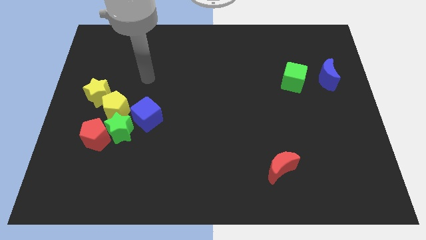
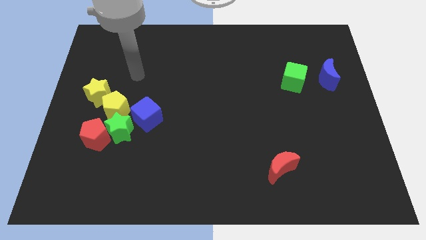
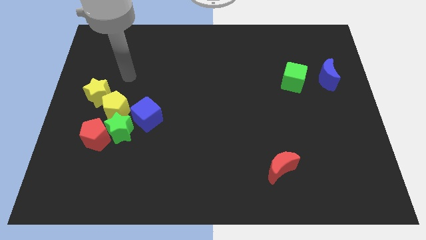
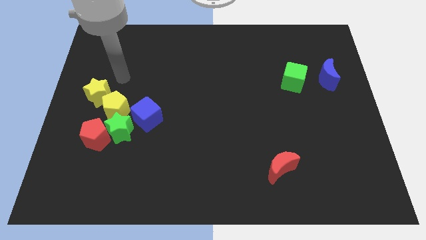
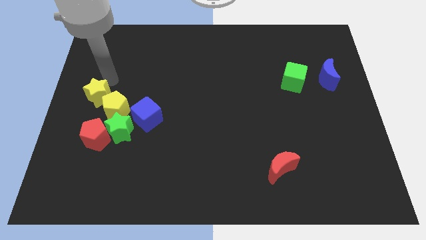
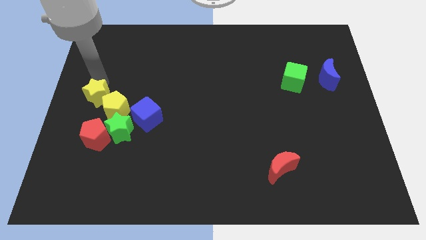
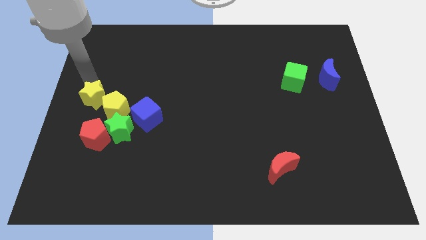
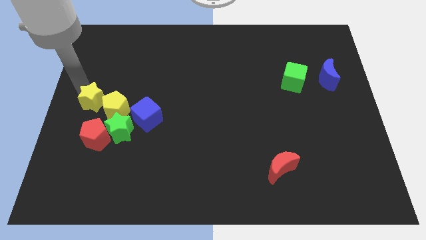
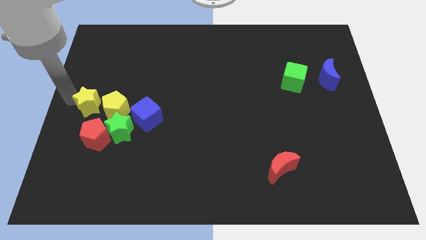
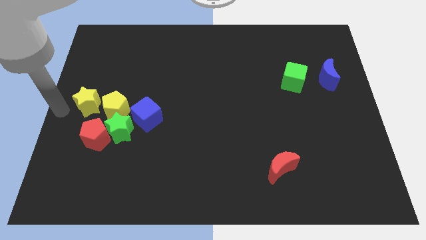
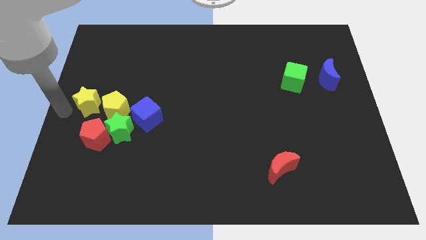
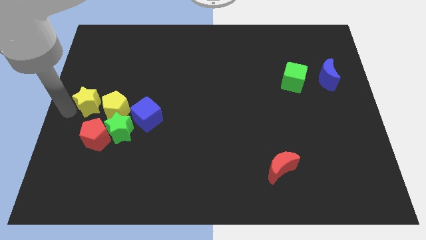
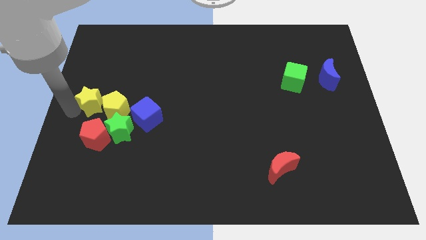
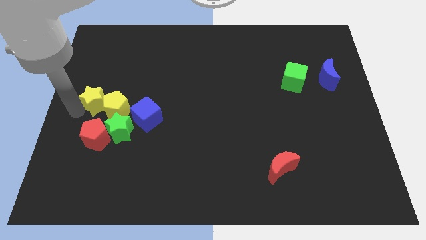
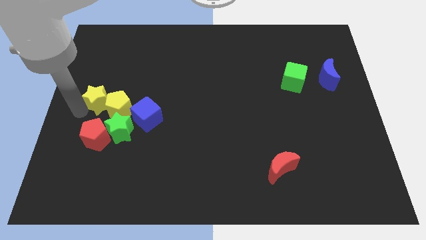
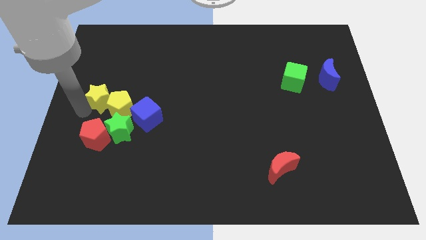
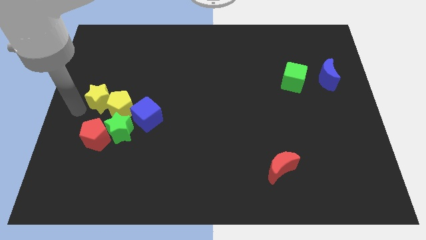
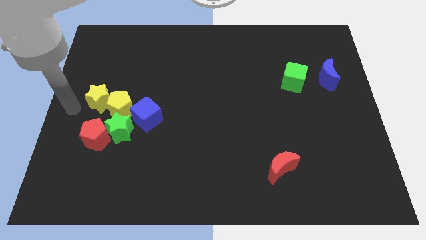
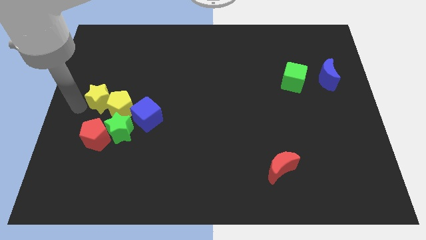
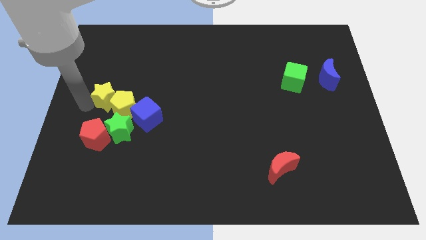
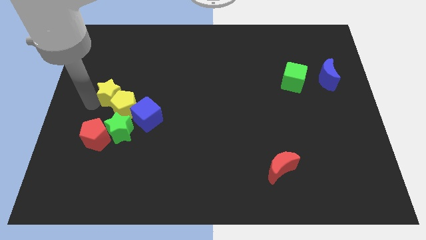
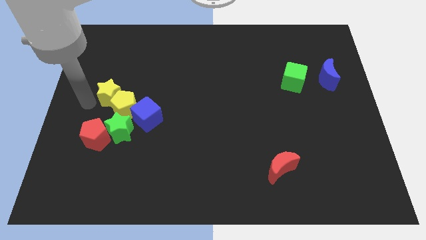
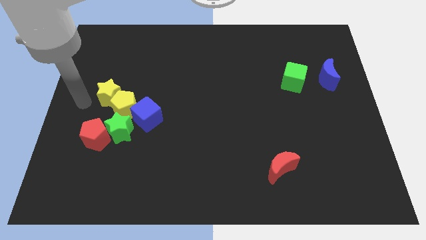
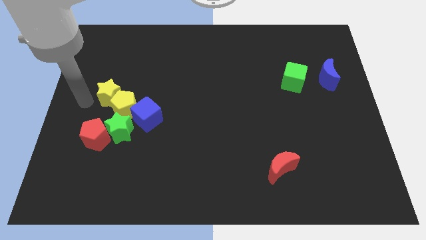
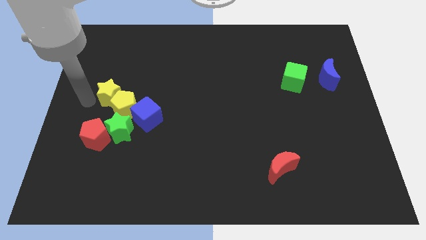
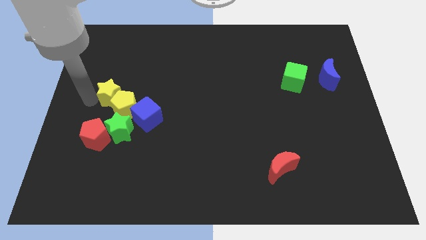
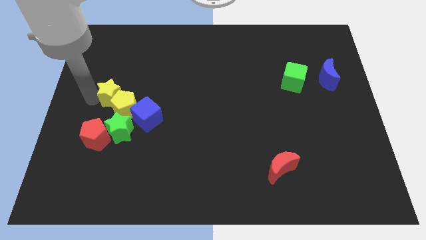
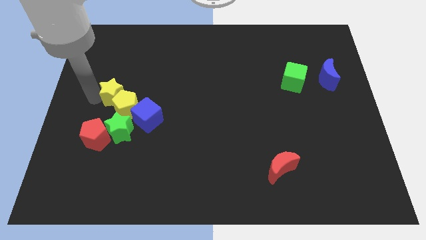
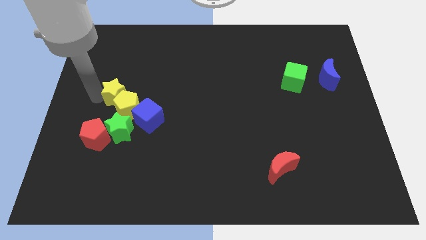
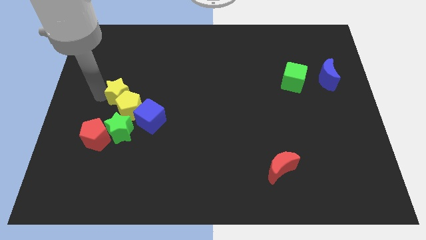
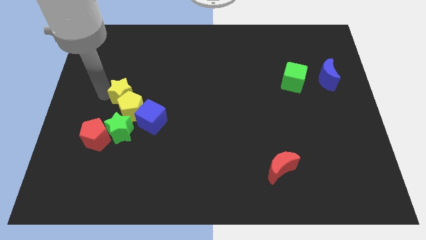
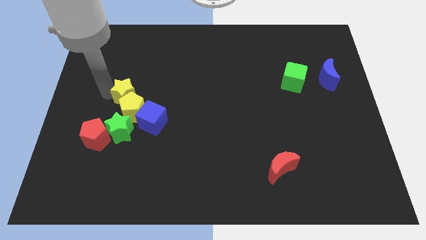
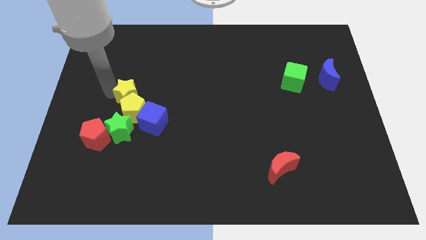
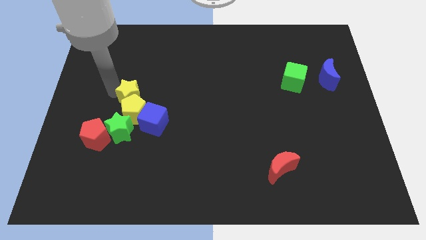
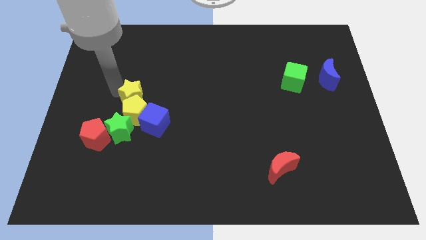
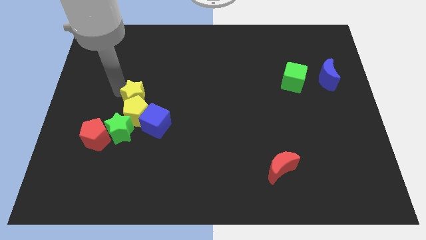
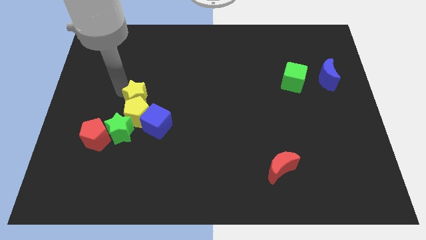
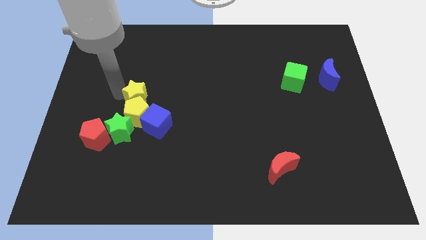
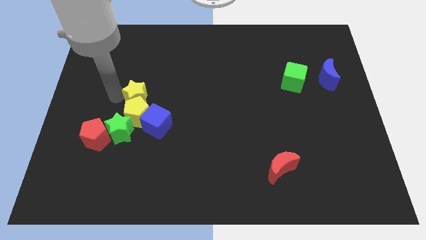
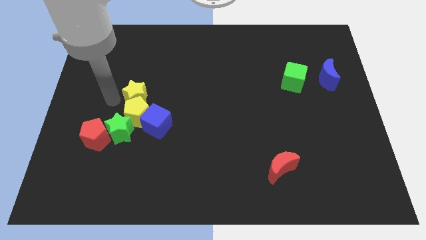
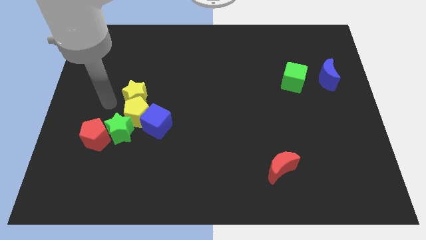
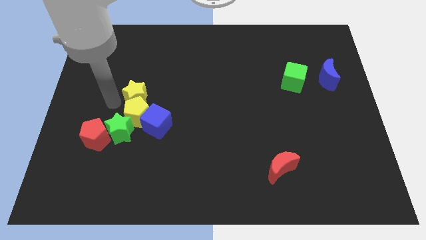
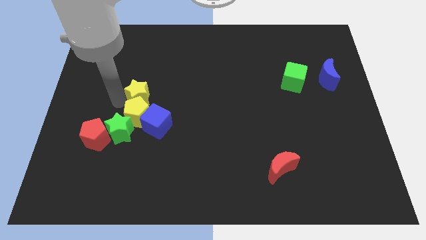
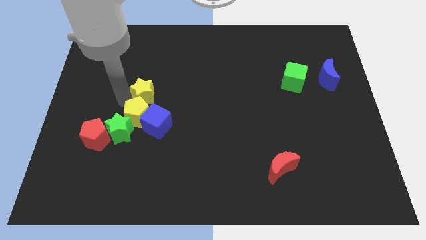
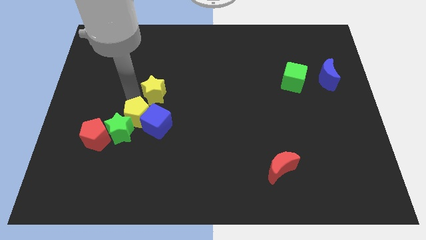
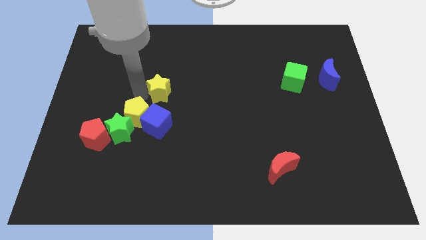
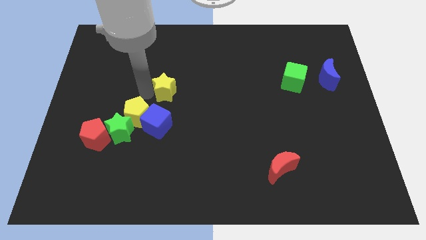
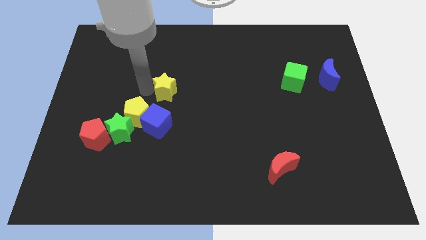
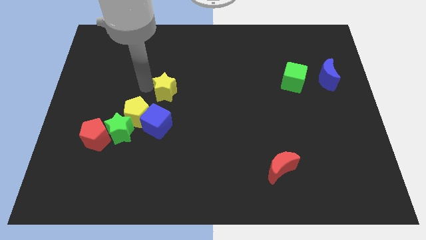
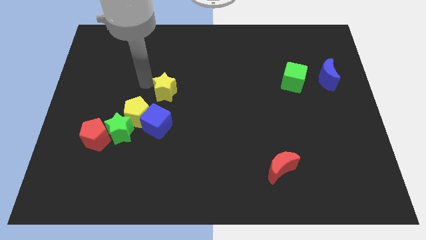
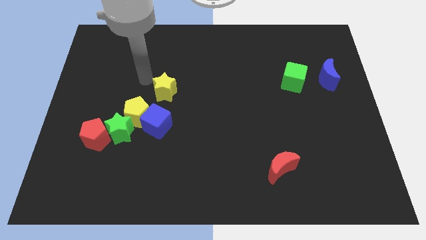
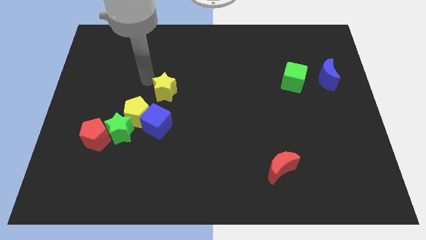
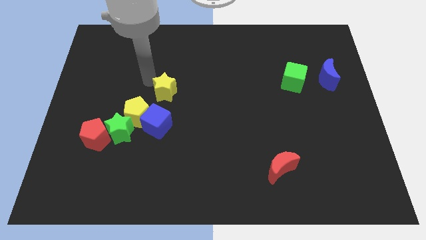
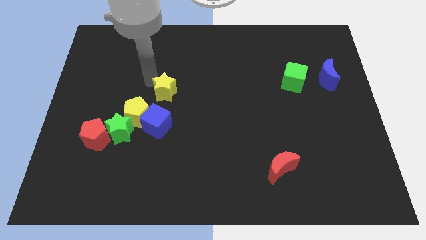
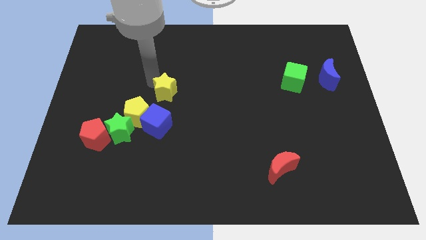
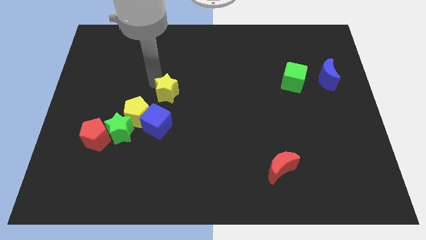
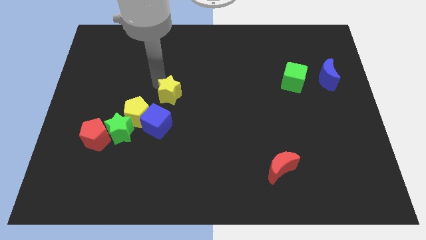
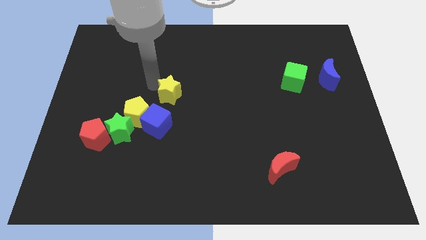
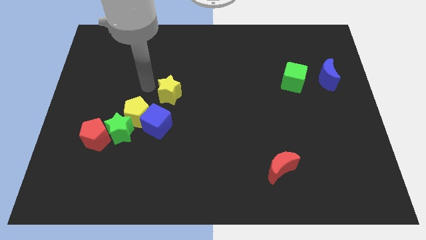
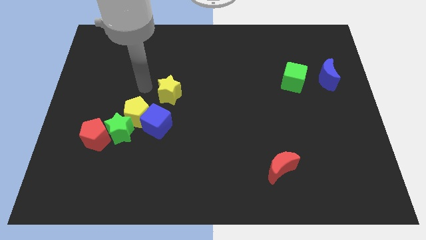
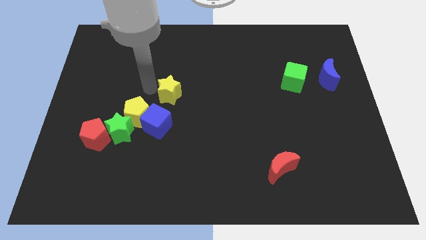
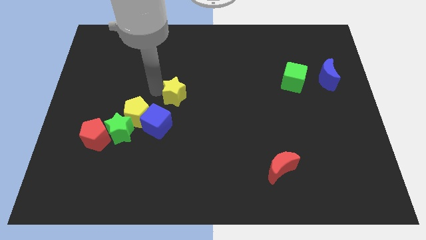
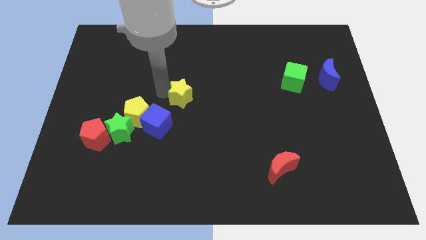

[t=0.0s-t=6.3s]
push the yellow star right
